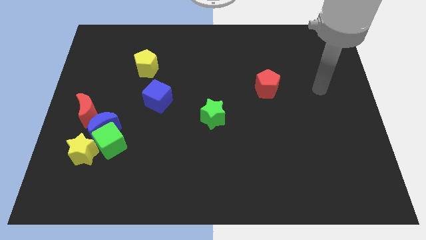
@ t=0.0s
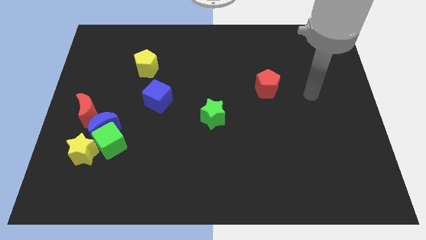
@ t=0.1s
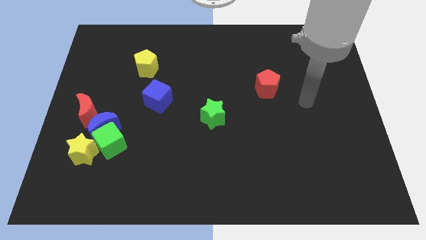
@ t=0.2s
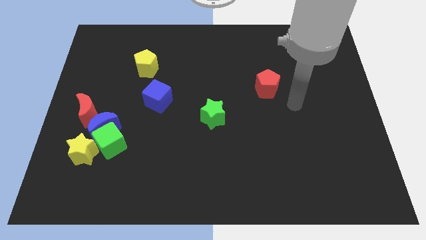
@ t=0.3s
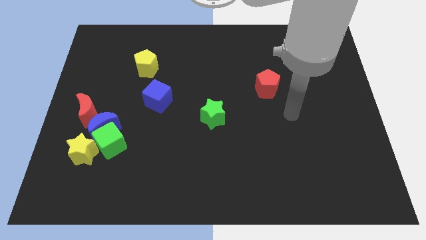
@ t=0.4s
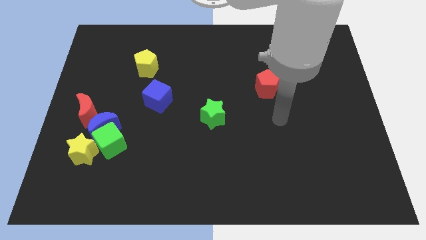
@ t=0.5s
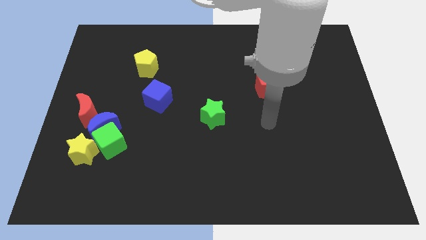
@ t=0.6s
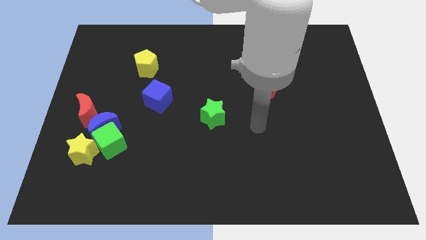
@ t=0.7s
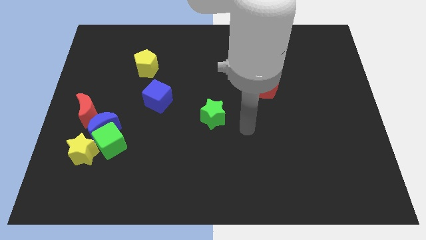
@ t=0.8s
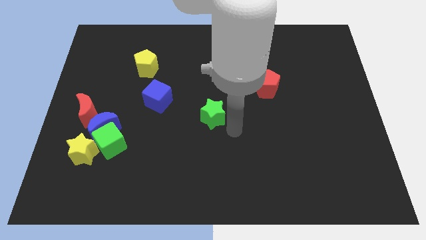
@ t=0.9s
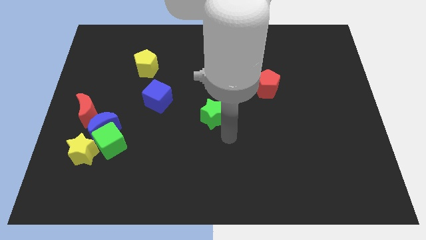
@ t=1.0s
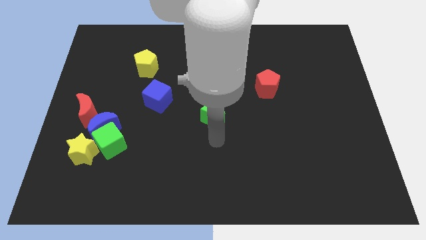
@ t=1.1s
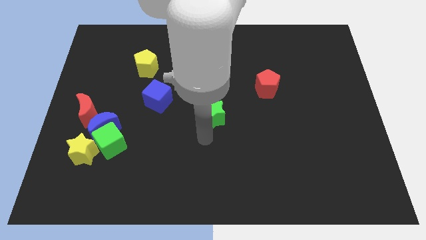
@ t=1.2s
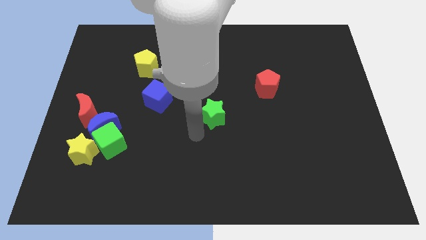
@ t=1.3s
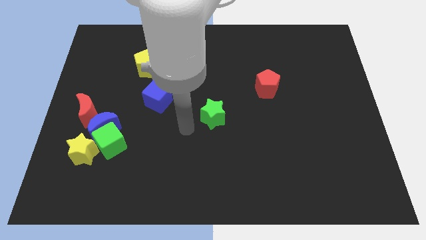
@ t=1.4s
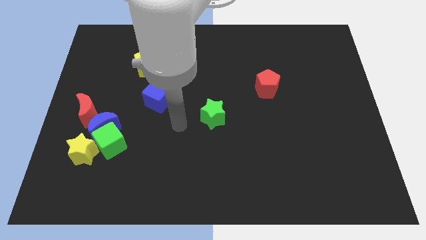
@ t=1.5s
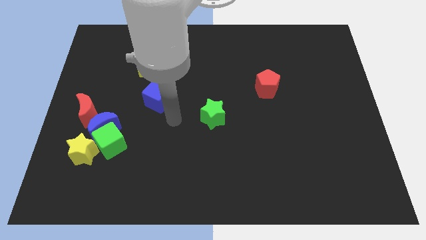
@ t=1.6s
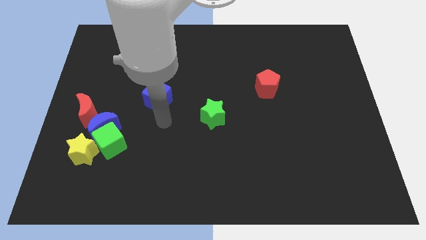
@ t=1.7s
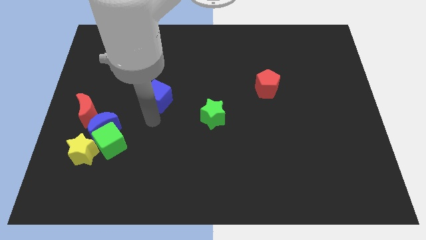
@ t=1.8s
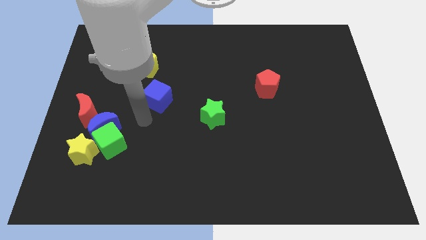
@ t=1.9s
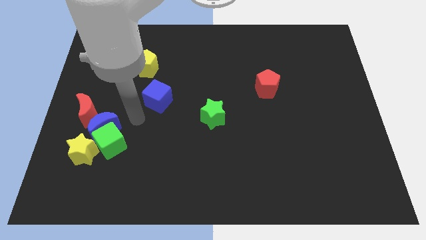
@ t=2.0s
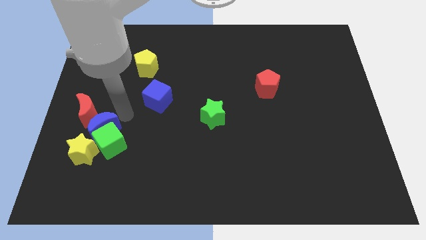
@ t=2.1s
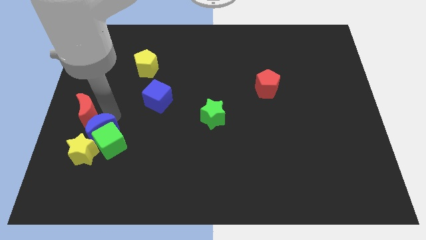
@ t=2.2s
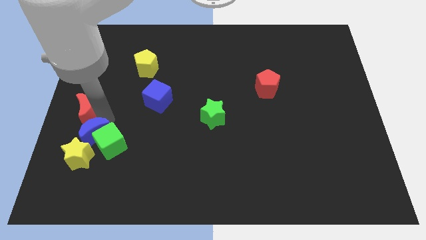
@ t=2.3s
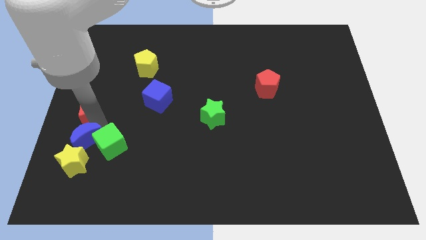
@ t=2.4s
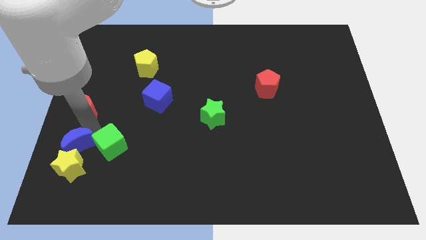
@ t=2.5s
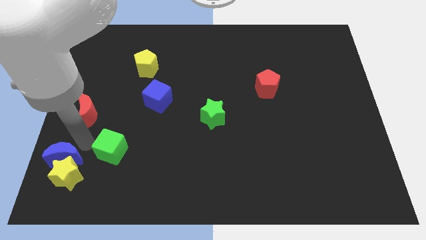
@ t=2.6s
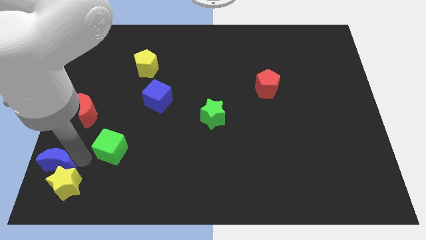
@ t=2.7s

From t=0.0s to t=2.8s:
pull the green cube apart from the blue moon and yellow star

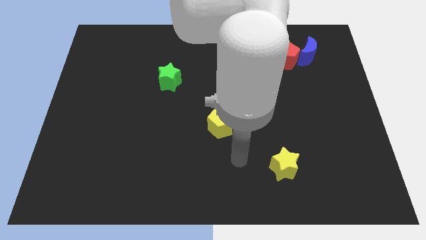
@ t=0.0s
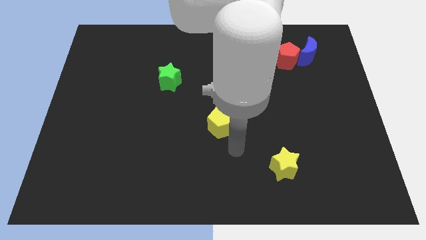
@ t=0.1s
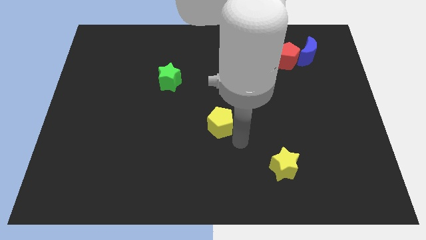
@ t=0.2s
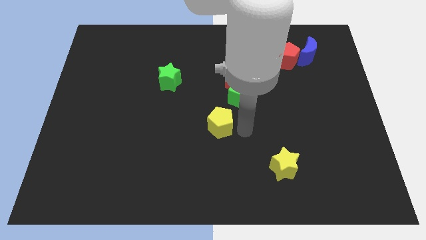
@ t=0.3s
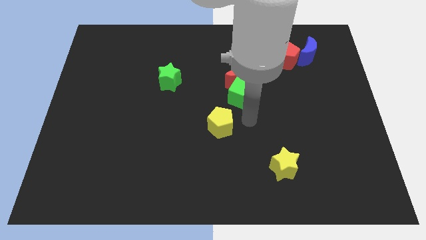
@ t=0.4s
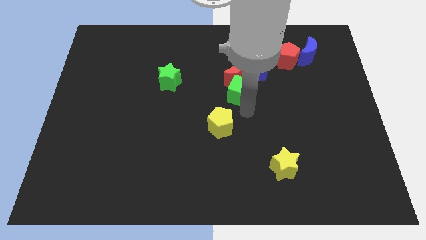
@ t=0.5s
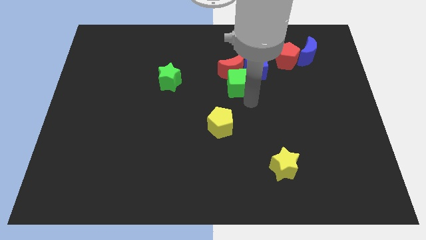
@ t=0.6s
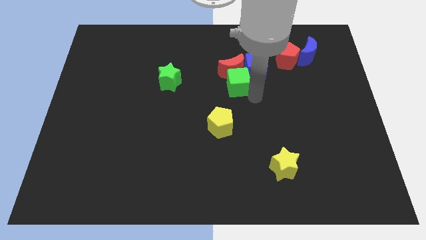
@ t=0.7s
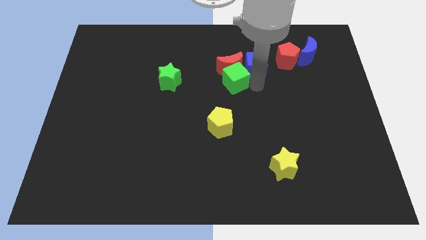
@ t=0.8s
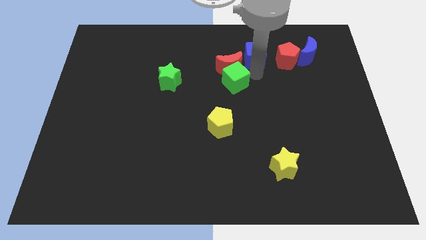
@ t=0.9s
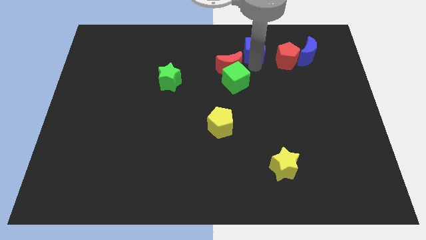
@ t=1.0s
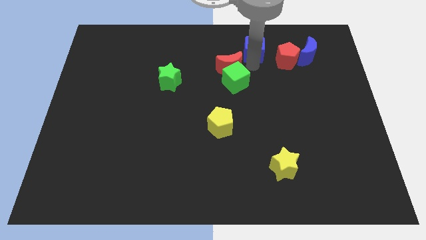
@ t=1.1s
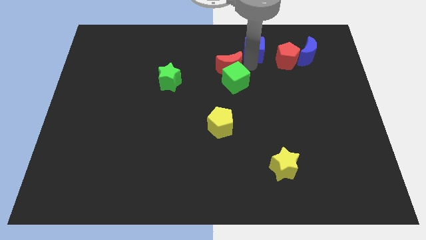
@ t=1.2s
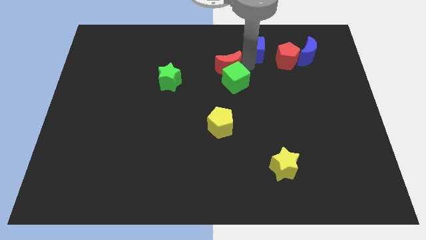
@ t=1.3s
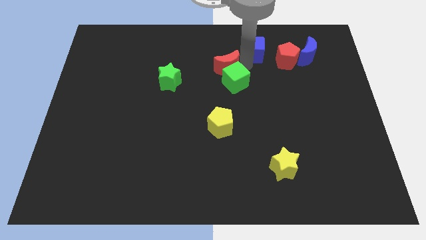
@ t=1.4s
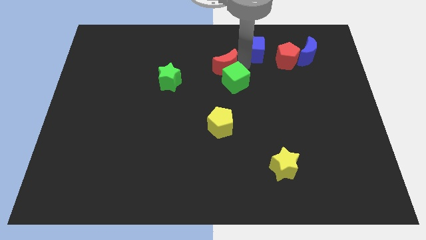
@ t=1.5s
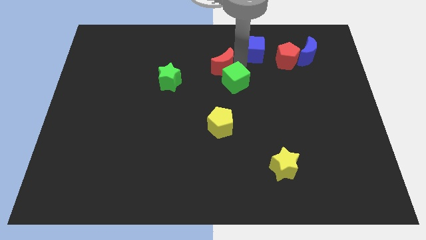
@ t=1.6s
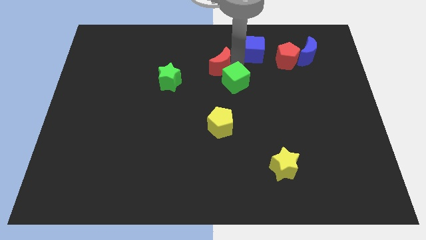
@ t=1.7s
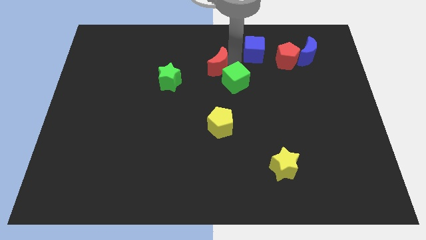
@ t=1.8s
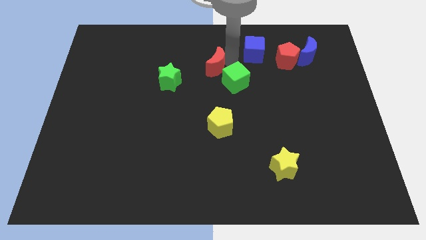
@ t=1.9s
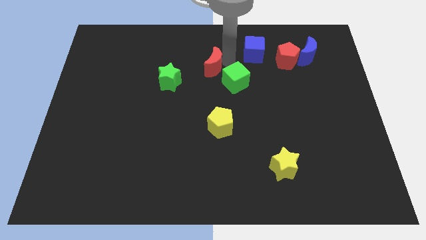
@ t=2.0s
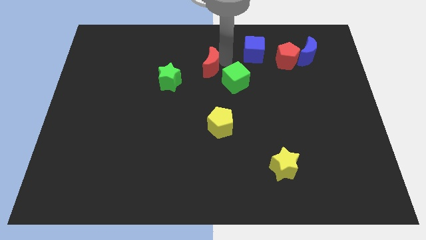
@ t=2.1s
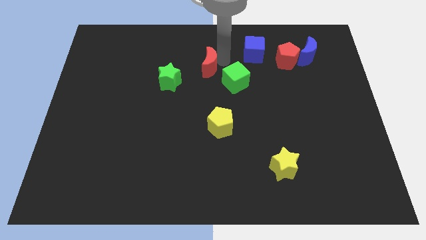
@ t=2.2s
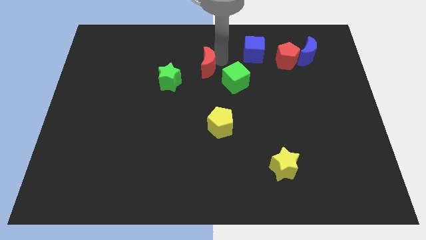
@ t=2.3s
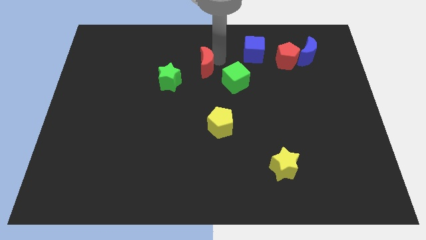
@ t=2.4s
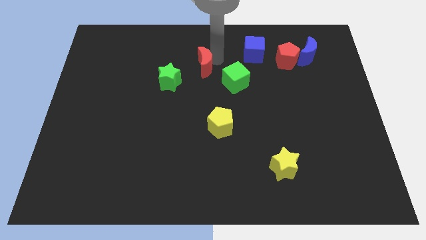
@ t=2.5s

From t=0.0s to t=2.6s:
move the red moon away from the blue cube and green cube

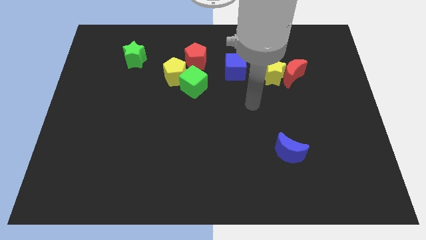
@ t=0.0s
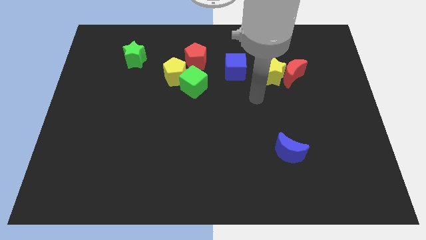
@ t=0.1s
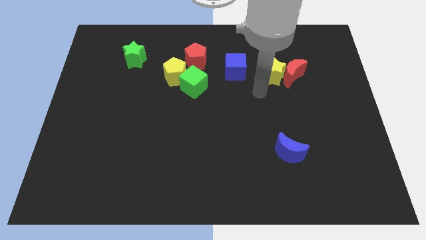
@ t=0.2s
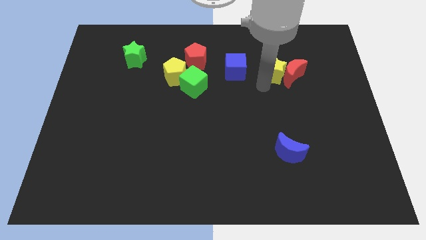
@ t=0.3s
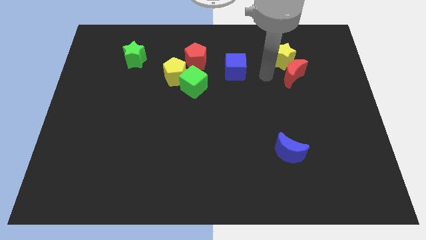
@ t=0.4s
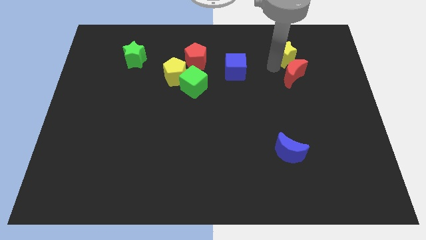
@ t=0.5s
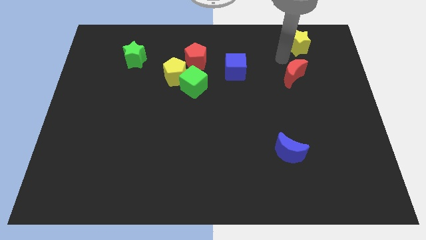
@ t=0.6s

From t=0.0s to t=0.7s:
pull the red moon apart from the yellow star

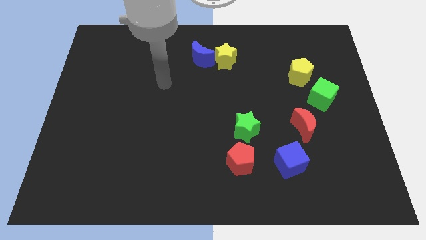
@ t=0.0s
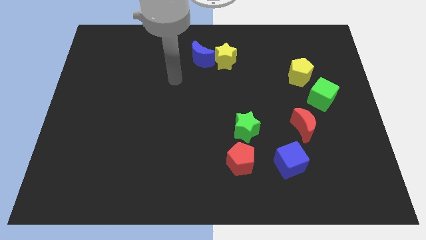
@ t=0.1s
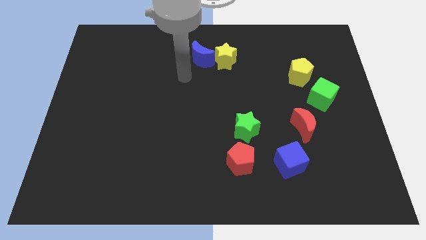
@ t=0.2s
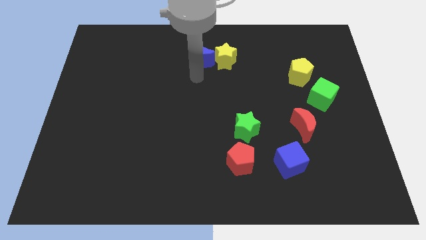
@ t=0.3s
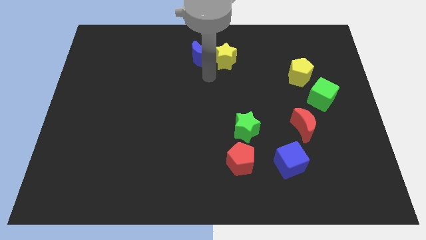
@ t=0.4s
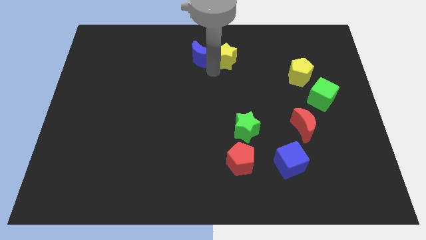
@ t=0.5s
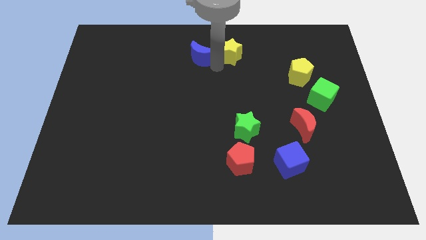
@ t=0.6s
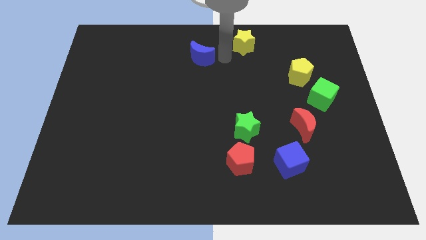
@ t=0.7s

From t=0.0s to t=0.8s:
move the blue moon away from the yellow star

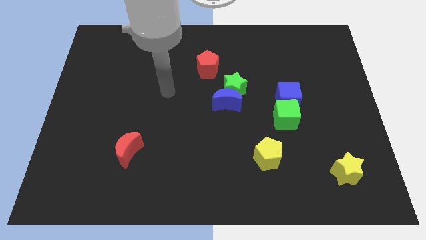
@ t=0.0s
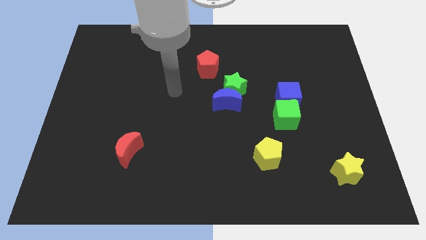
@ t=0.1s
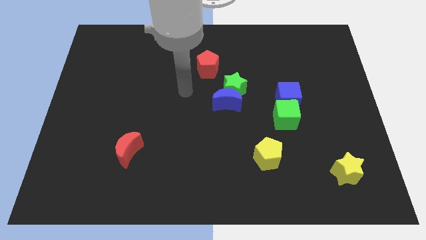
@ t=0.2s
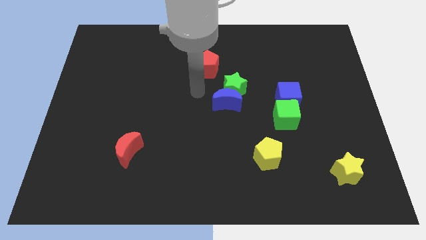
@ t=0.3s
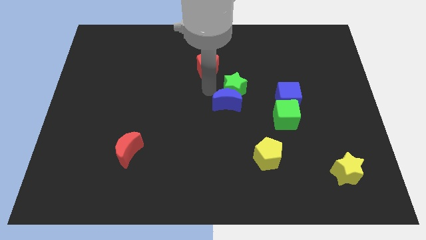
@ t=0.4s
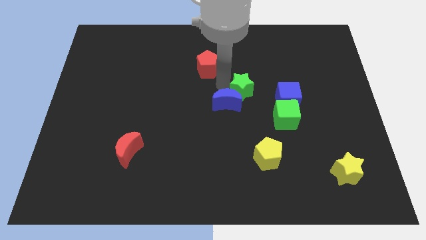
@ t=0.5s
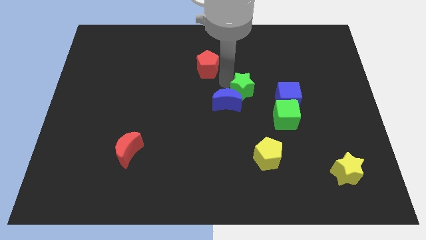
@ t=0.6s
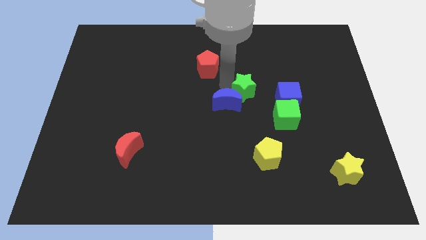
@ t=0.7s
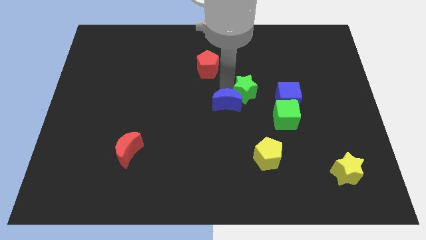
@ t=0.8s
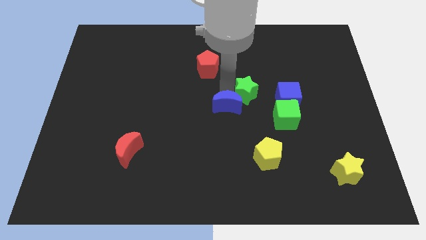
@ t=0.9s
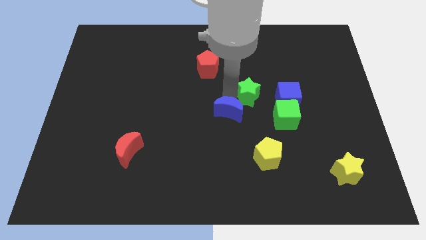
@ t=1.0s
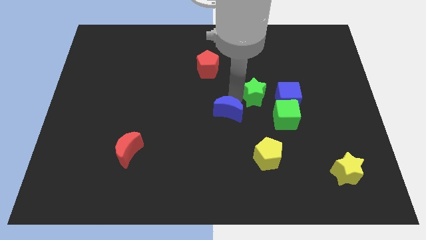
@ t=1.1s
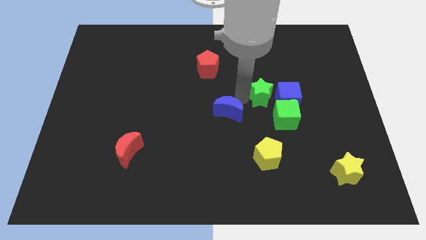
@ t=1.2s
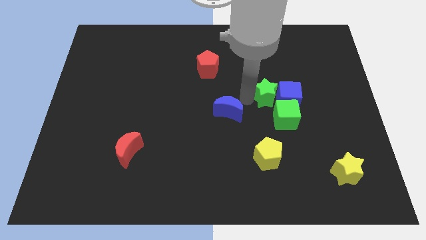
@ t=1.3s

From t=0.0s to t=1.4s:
pull the blue moon apart from the green star

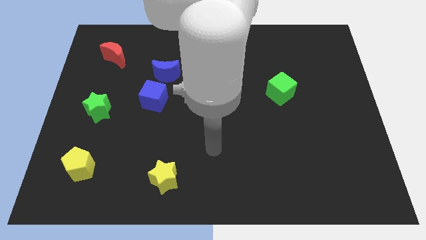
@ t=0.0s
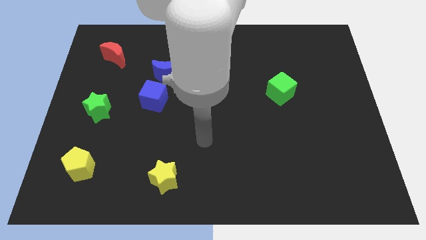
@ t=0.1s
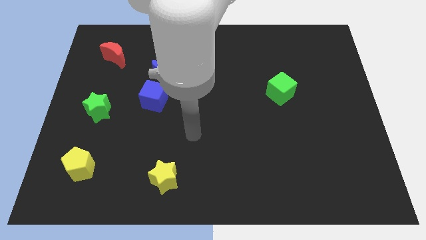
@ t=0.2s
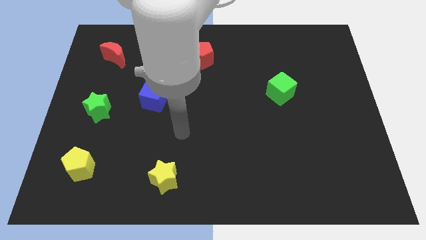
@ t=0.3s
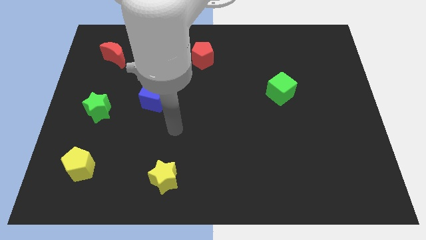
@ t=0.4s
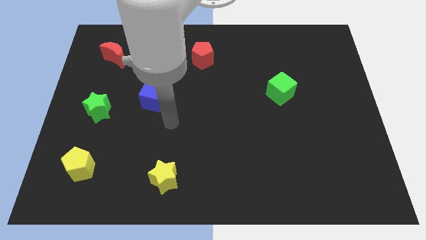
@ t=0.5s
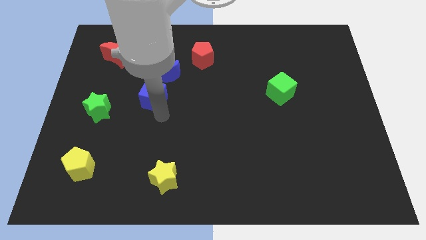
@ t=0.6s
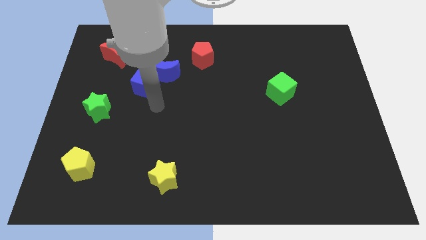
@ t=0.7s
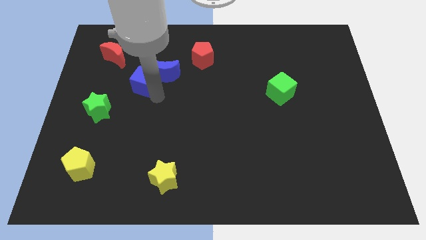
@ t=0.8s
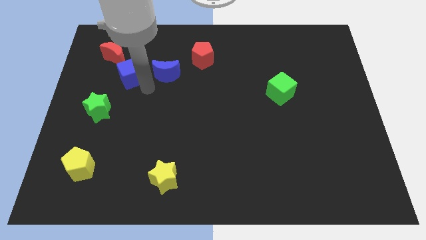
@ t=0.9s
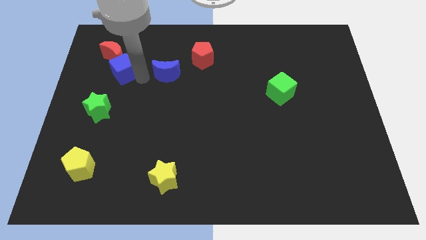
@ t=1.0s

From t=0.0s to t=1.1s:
move the blue moon away from the blue cube

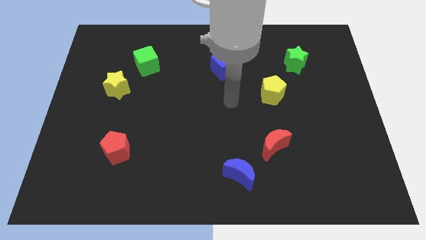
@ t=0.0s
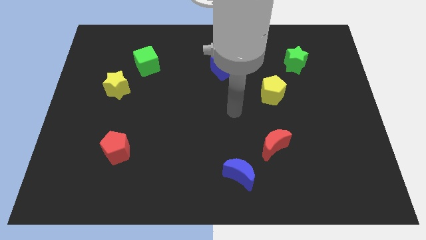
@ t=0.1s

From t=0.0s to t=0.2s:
pull the red moon apart from the blue moon
